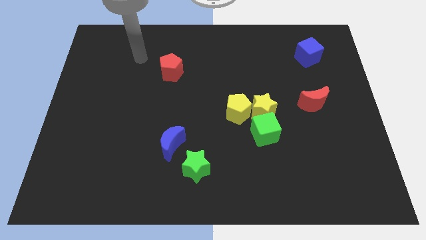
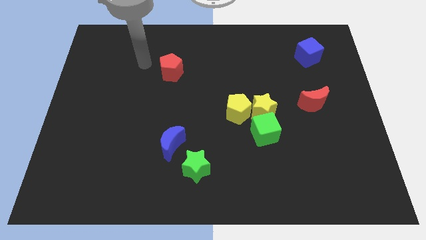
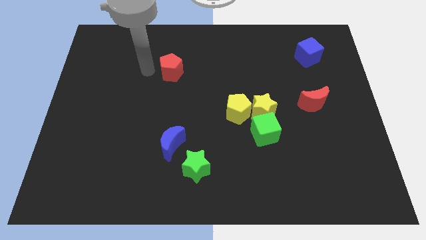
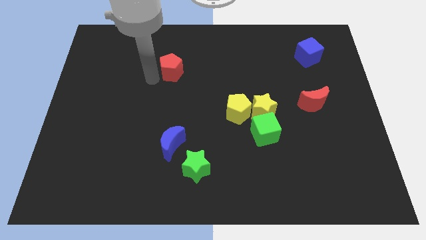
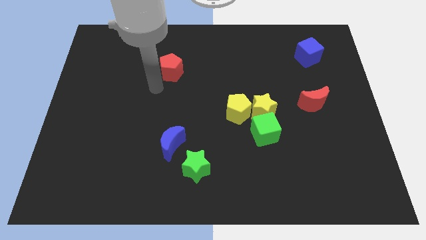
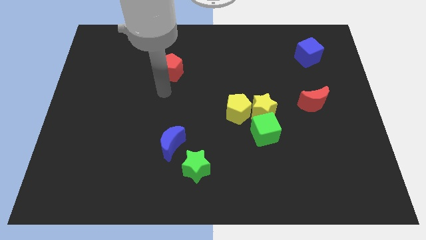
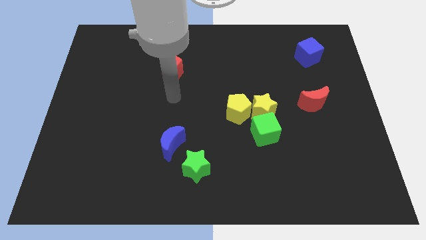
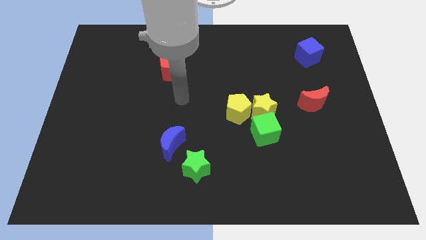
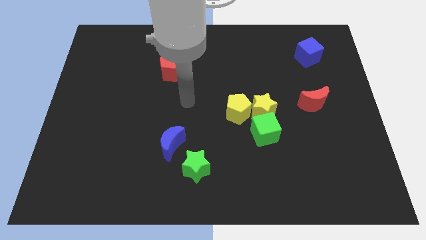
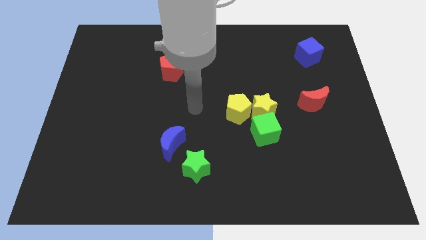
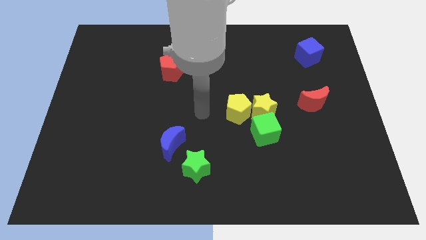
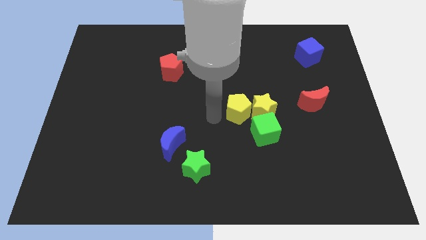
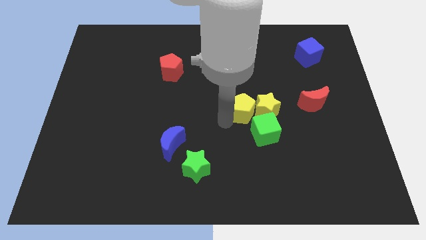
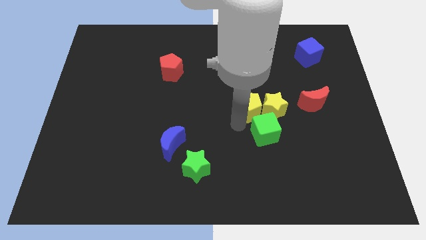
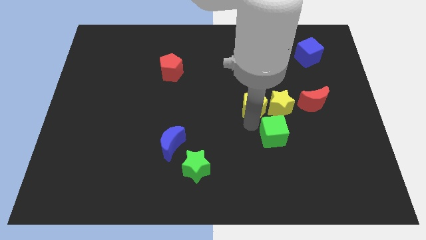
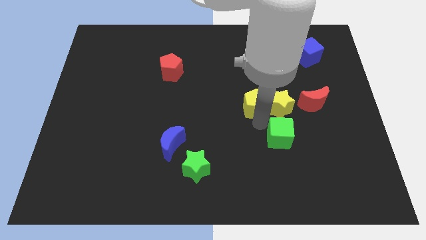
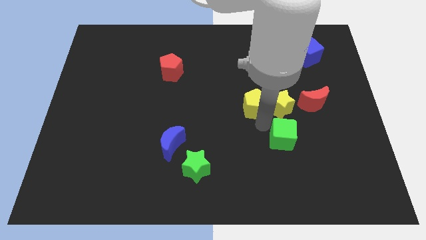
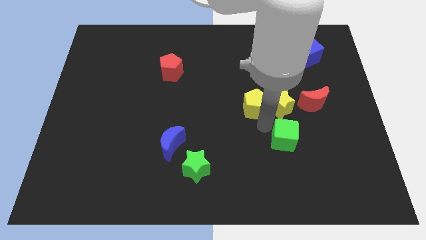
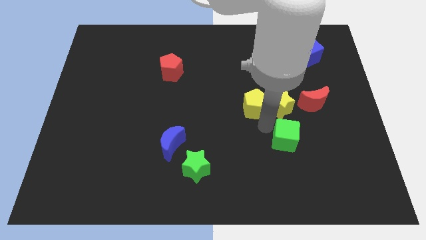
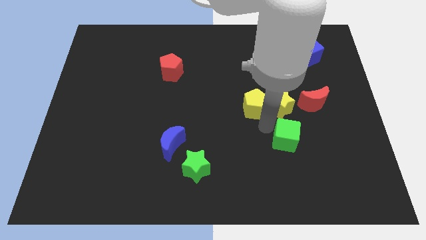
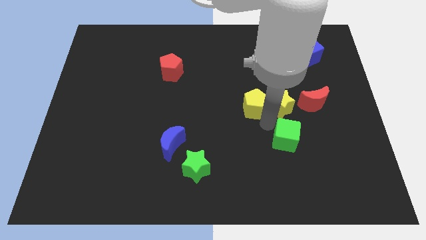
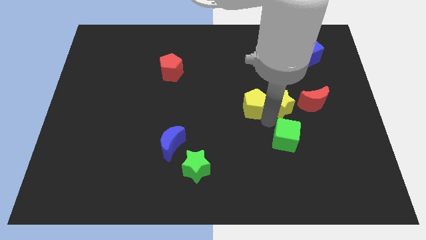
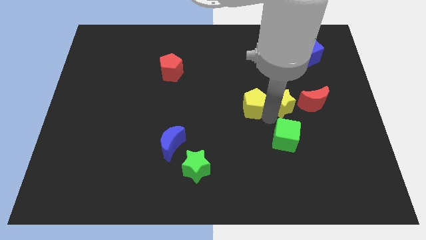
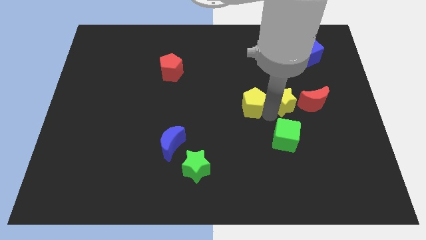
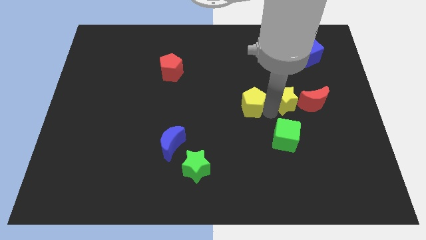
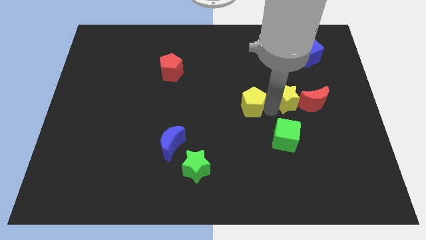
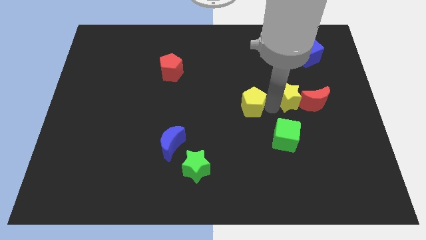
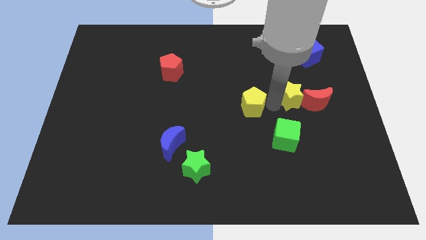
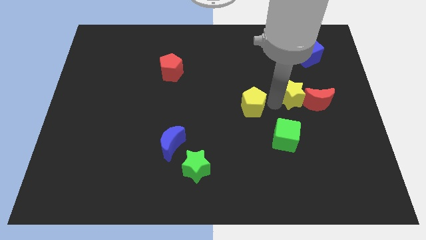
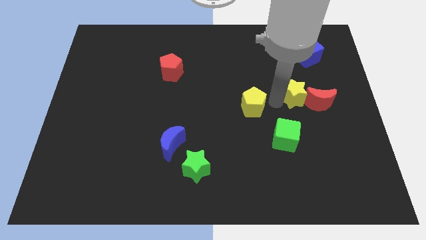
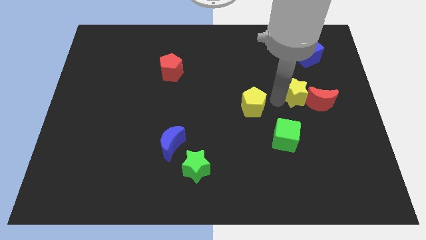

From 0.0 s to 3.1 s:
pull the yellow star apart from the green cube and yellow pentagon

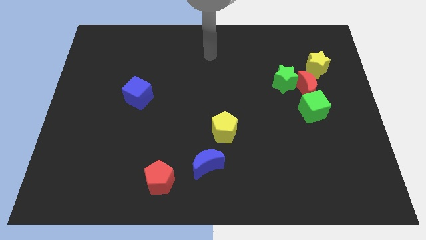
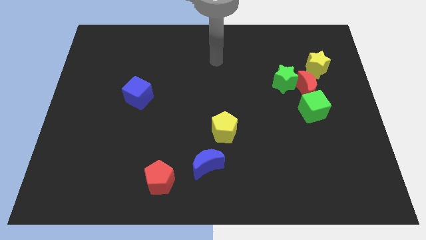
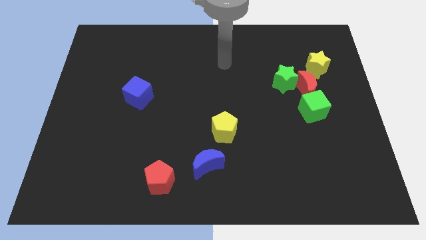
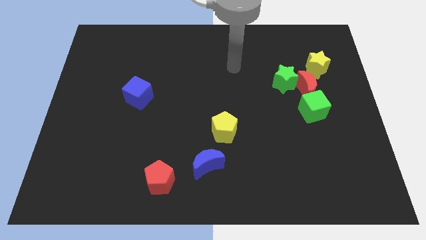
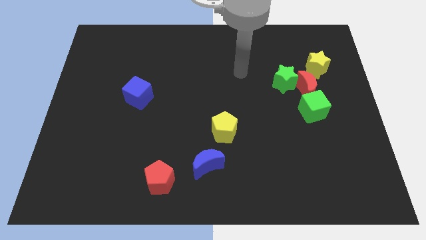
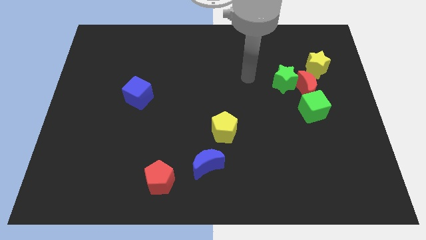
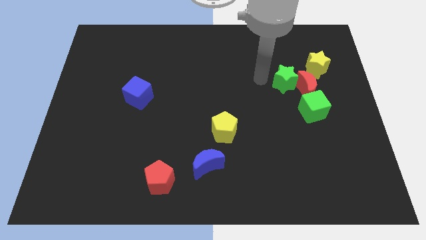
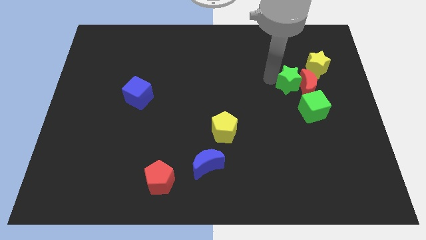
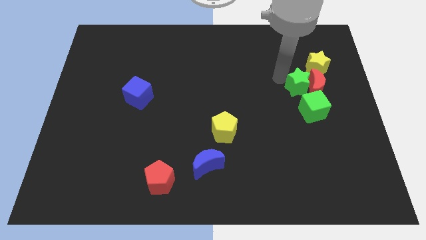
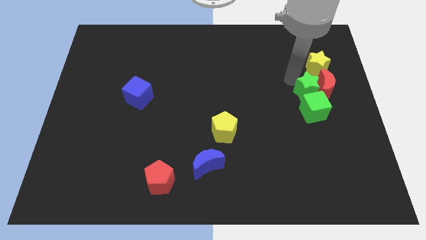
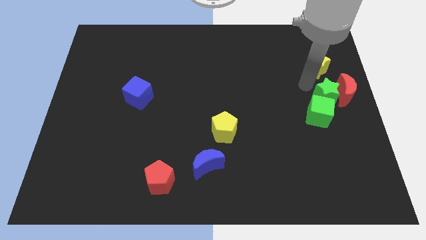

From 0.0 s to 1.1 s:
pull the green cube apart from the red moon

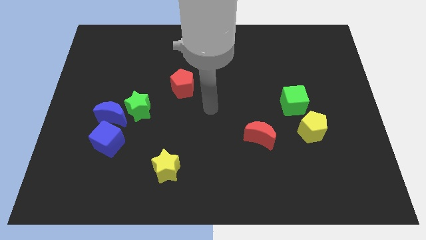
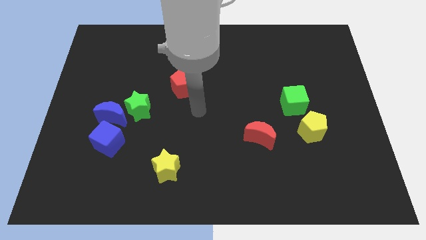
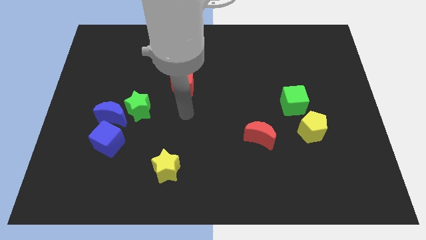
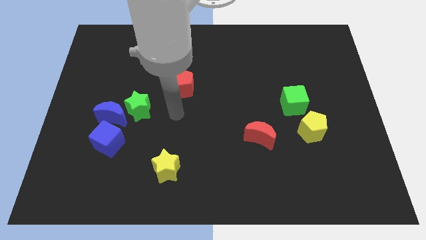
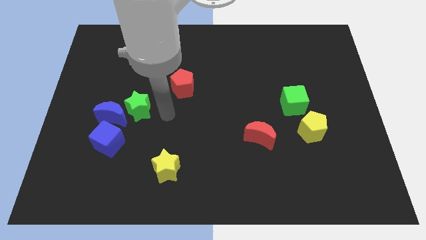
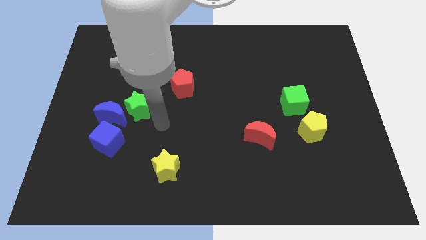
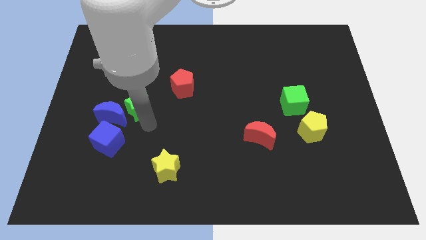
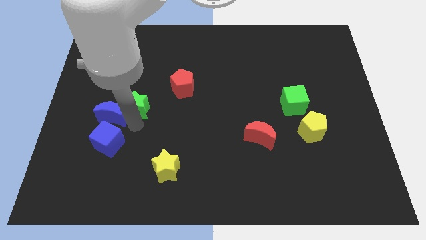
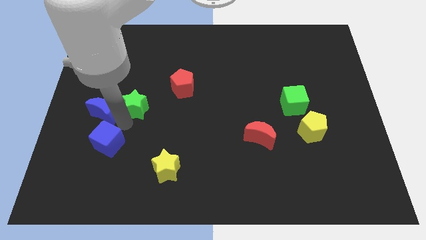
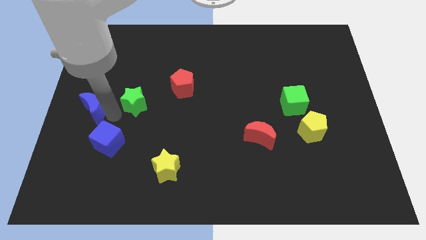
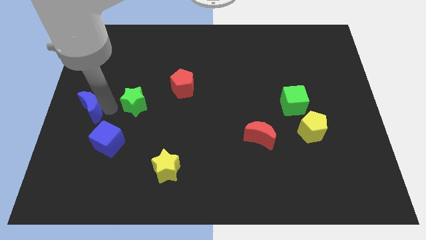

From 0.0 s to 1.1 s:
move the green star away from the blue moon

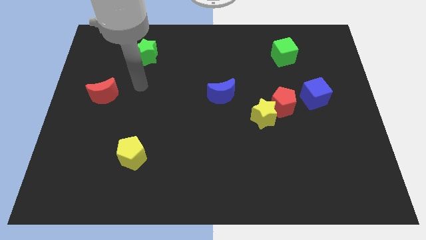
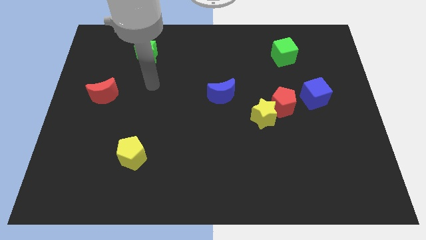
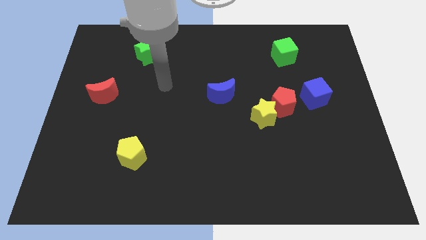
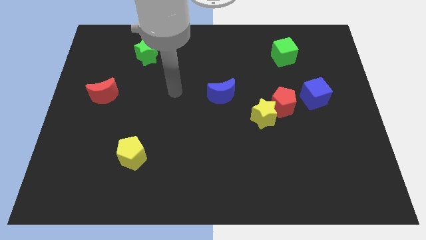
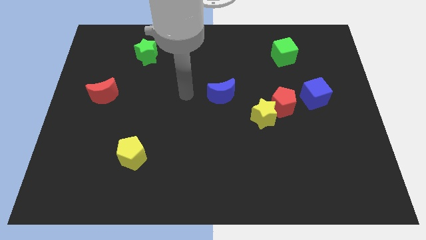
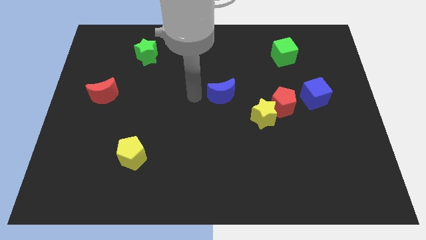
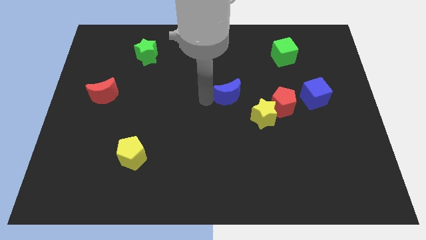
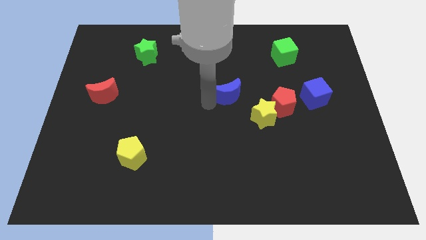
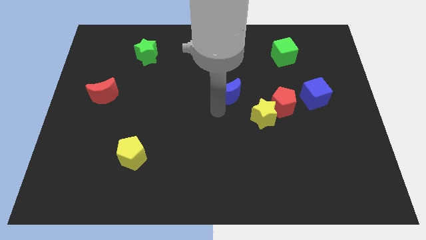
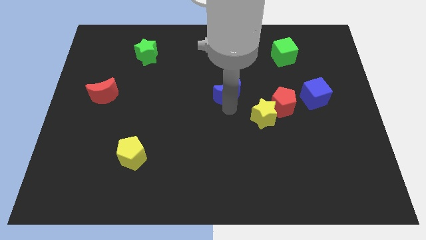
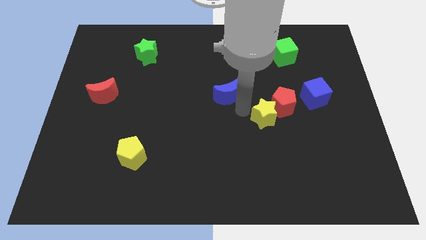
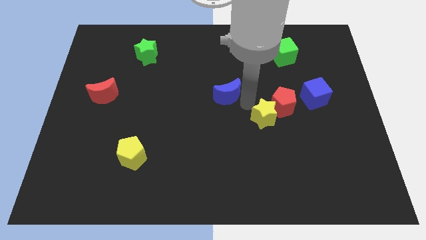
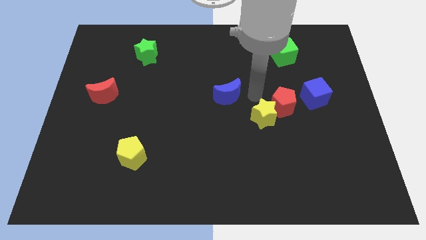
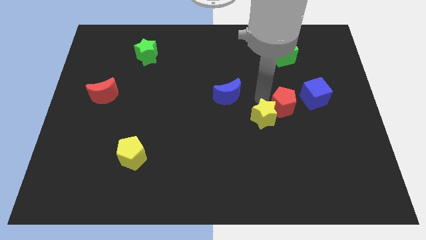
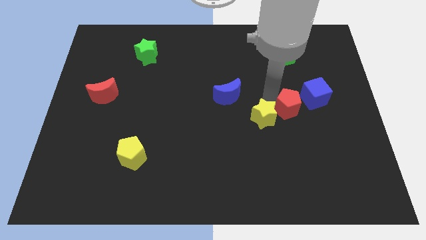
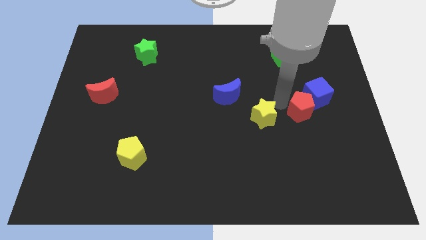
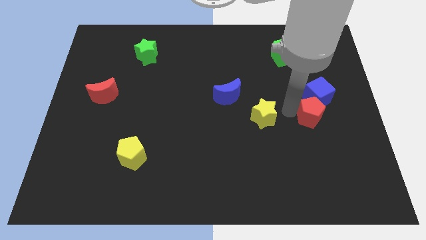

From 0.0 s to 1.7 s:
pull the yellow star apart from the red pentagon

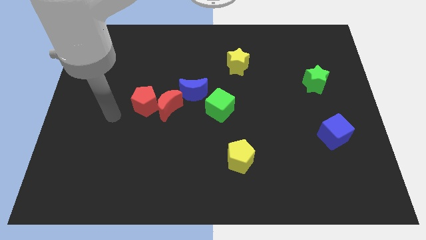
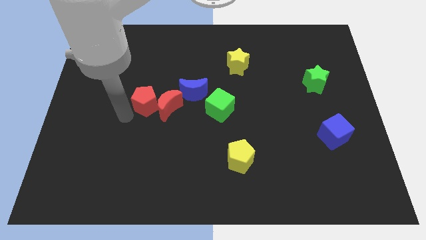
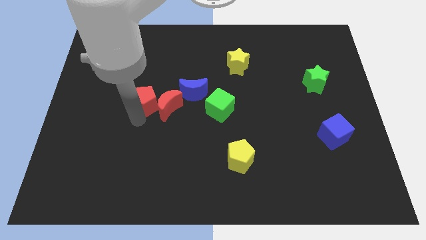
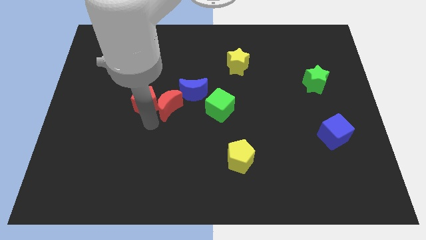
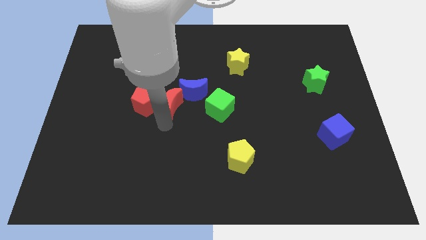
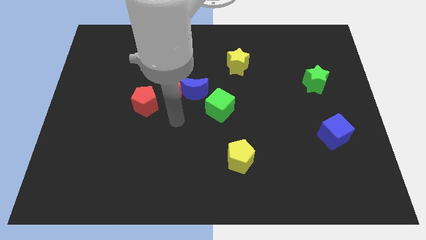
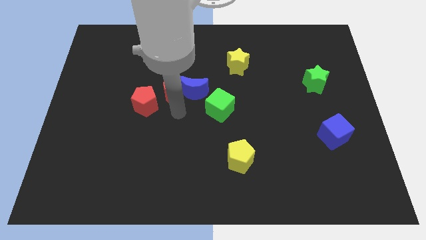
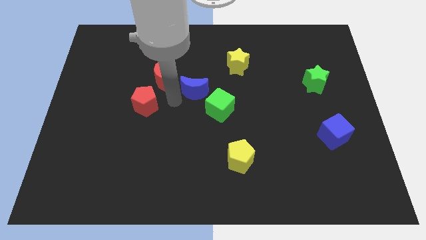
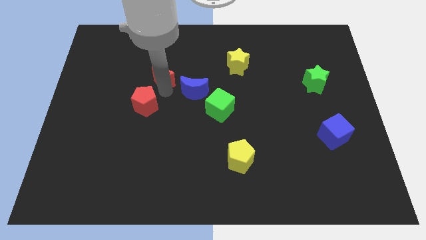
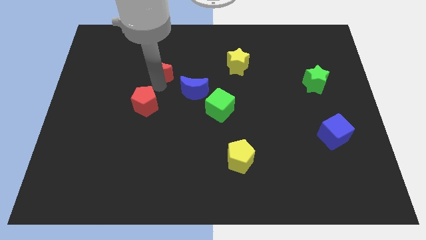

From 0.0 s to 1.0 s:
separate the red pentagon from the red moon

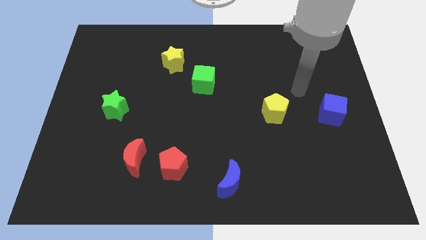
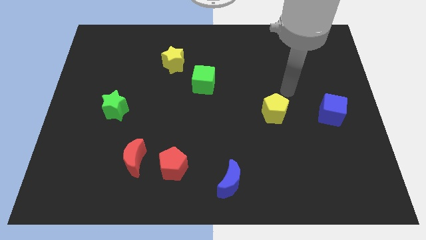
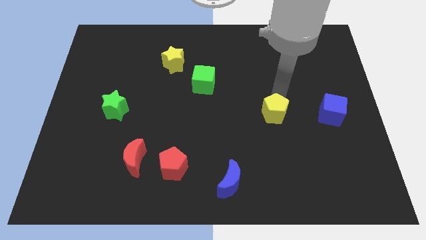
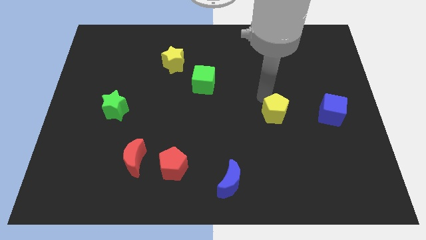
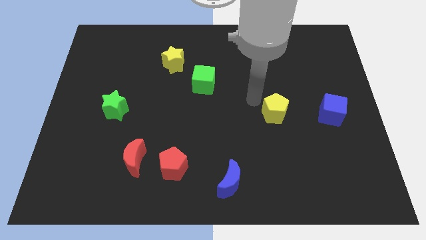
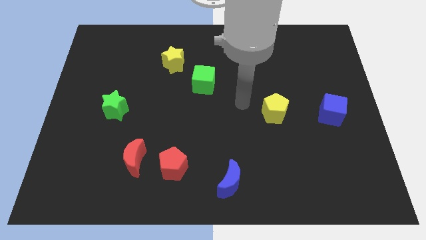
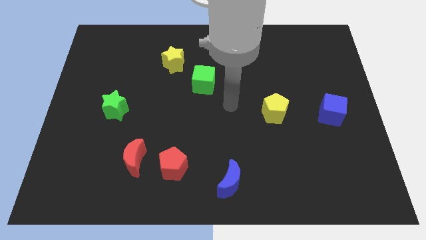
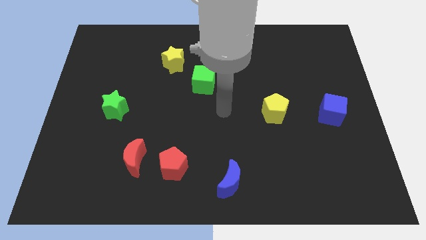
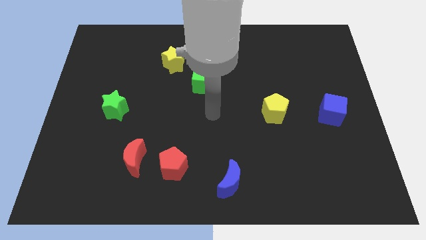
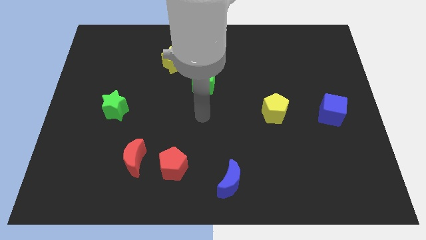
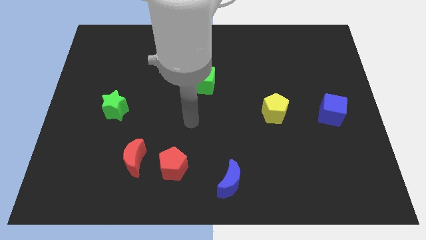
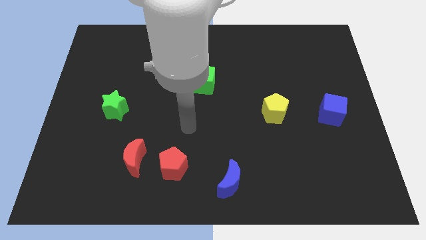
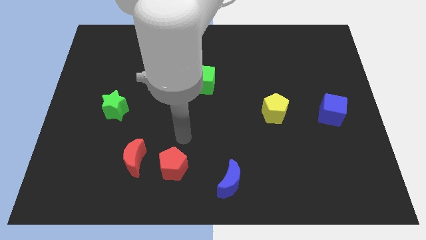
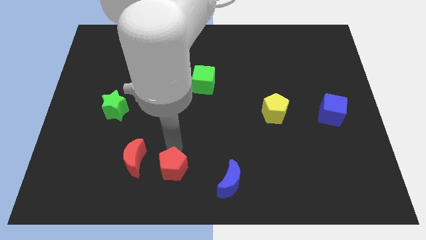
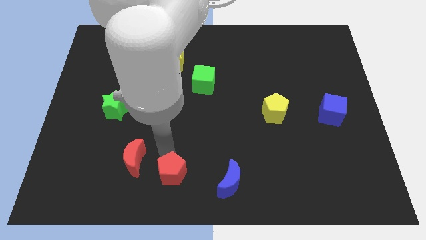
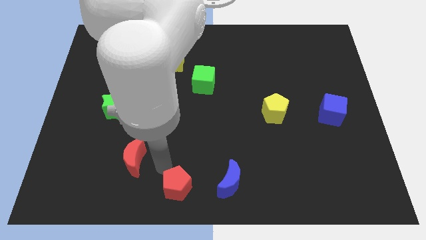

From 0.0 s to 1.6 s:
separate the red moon from the red pentagon
